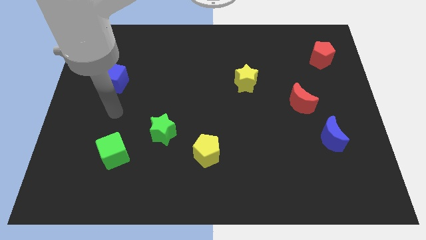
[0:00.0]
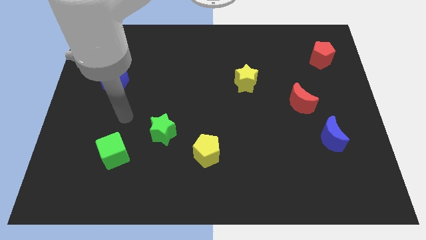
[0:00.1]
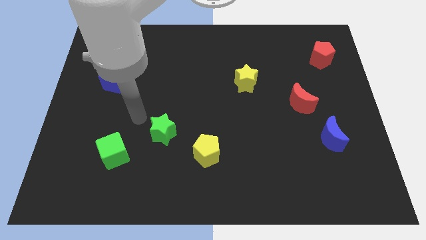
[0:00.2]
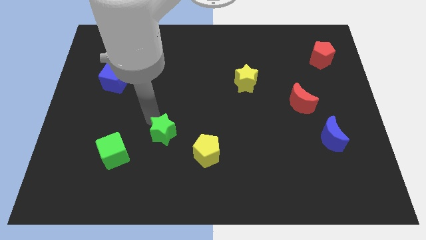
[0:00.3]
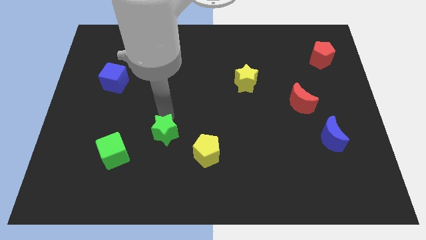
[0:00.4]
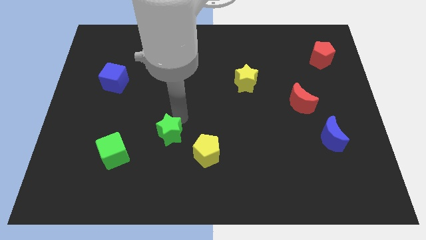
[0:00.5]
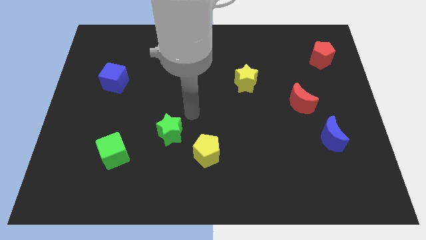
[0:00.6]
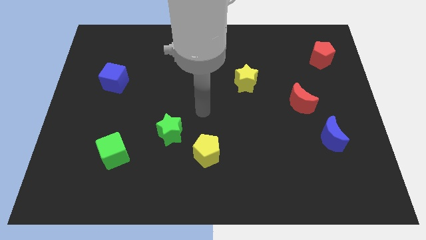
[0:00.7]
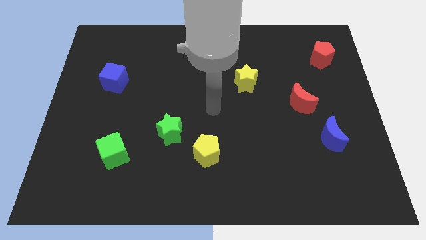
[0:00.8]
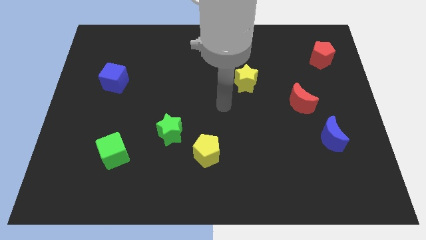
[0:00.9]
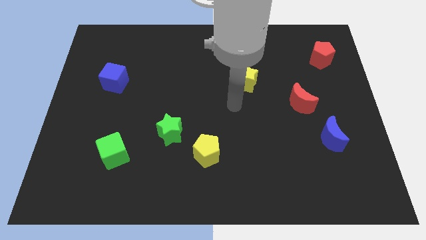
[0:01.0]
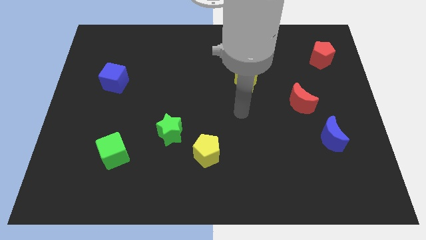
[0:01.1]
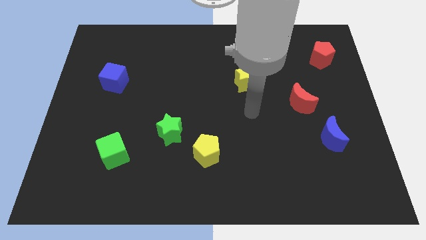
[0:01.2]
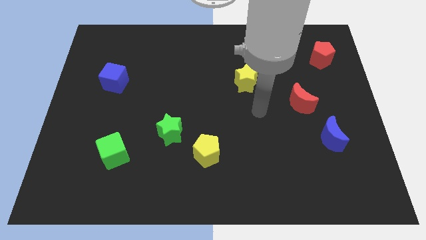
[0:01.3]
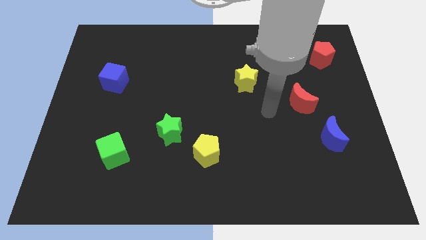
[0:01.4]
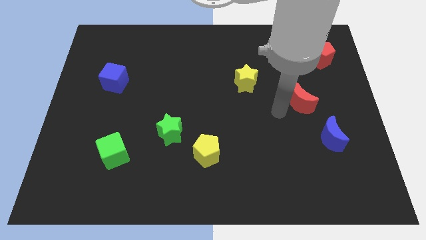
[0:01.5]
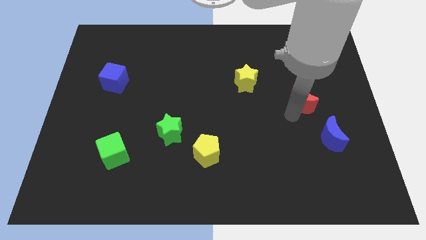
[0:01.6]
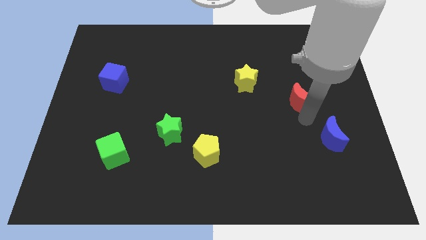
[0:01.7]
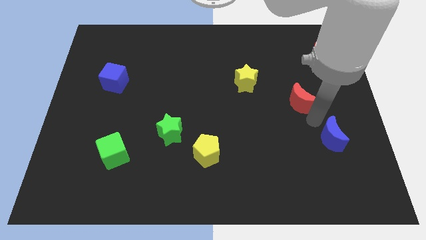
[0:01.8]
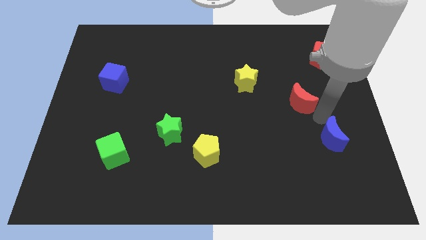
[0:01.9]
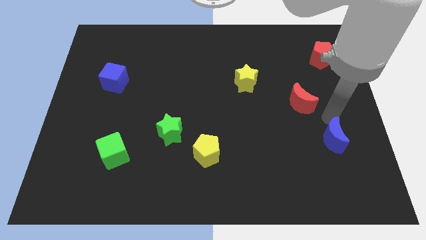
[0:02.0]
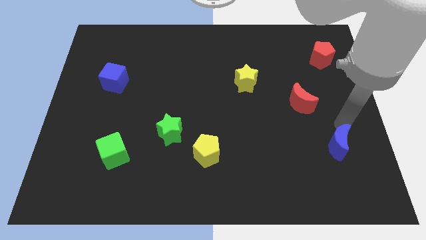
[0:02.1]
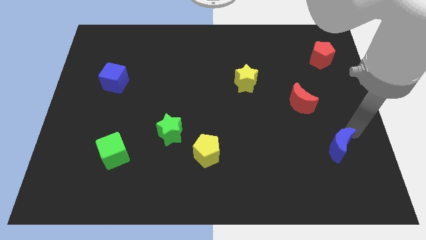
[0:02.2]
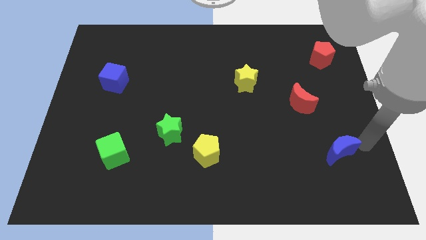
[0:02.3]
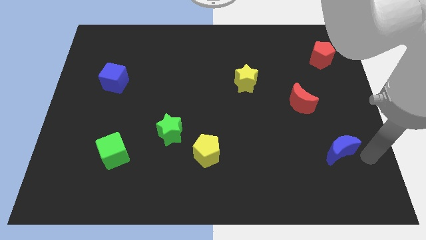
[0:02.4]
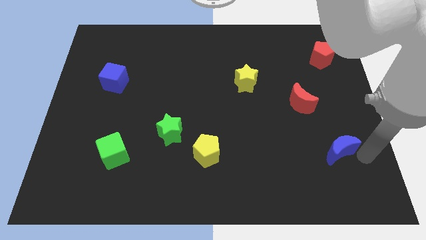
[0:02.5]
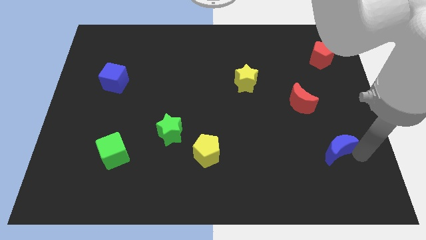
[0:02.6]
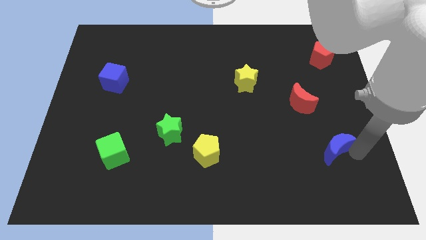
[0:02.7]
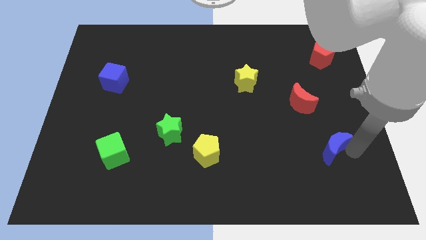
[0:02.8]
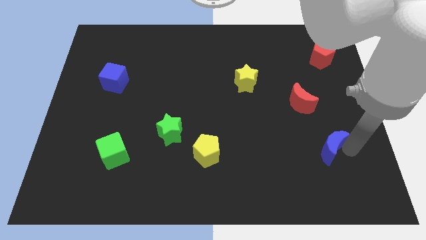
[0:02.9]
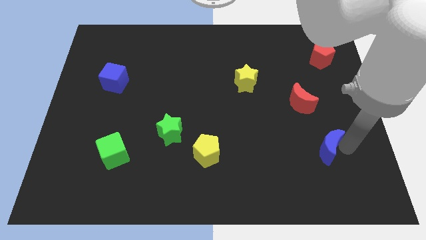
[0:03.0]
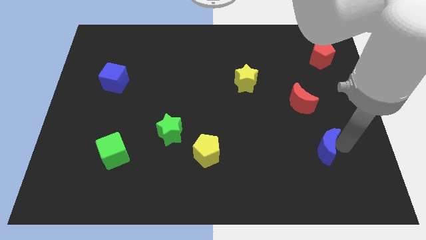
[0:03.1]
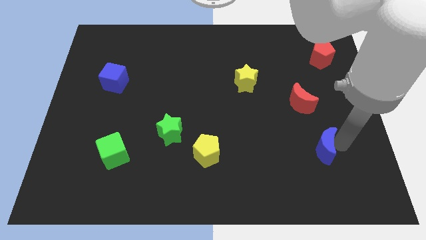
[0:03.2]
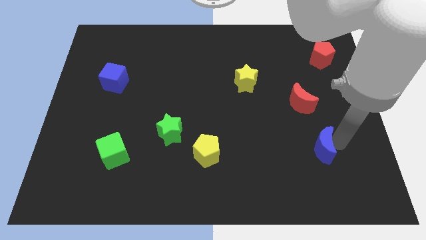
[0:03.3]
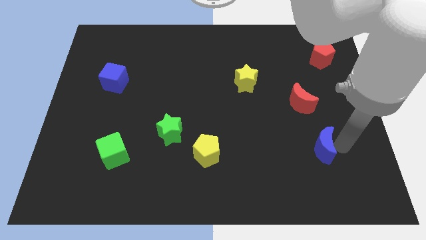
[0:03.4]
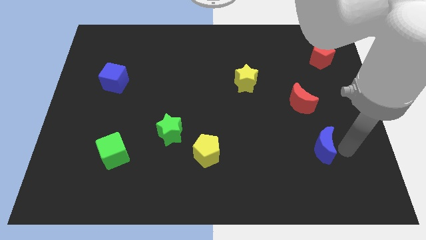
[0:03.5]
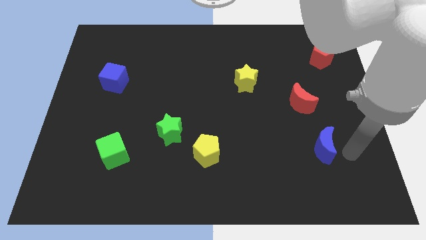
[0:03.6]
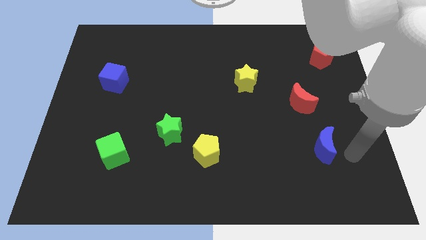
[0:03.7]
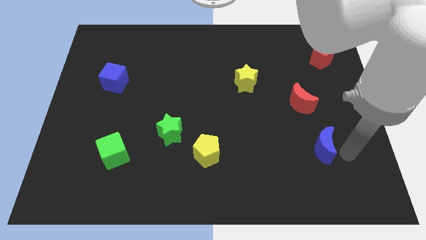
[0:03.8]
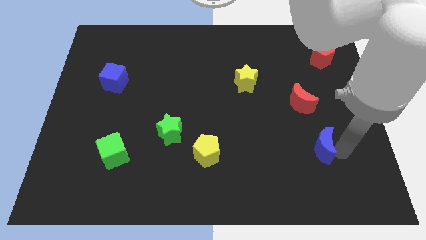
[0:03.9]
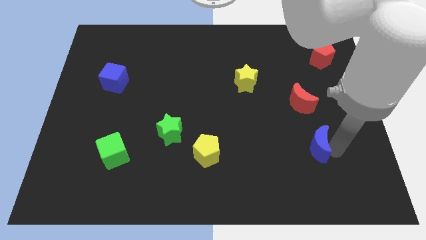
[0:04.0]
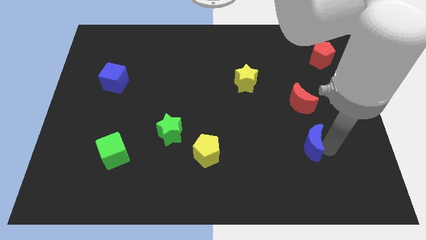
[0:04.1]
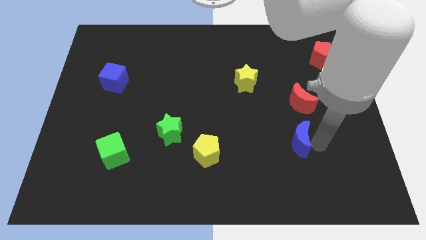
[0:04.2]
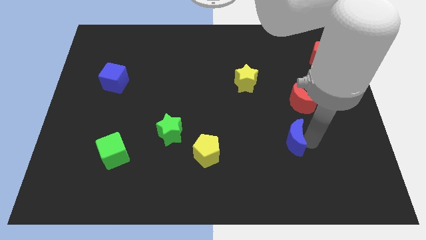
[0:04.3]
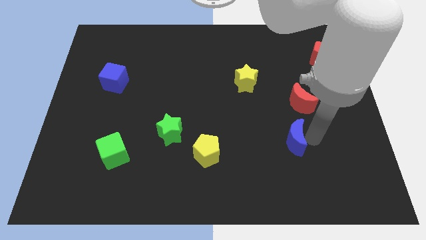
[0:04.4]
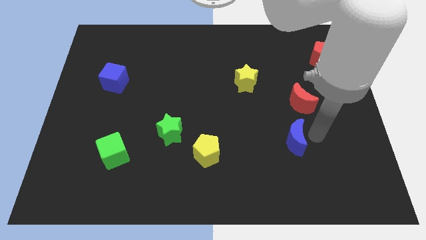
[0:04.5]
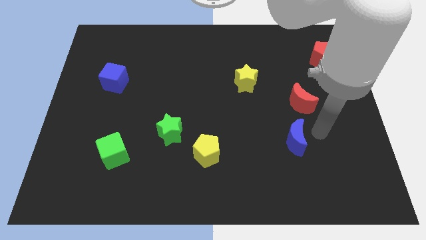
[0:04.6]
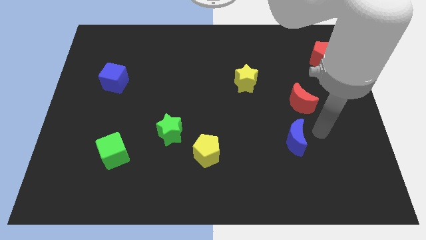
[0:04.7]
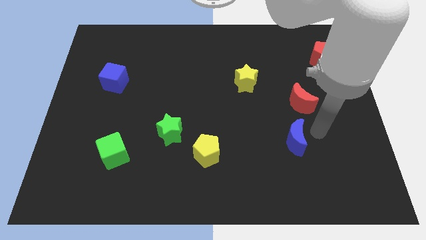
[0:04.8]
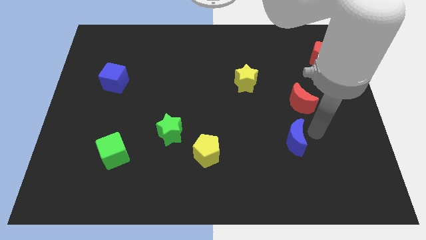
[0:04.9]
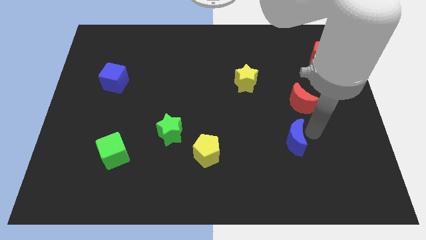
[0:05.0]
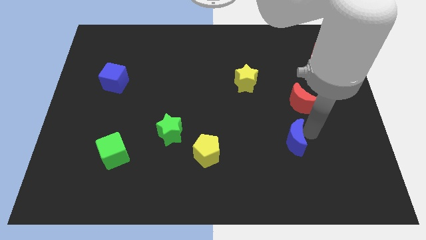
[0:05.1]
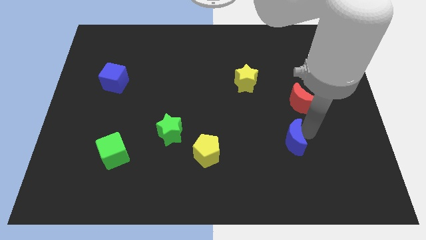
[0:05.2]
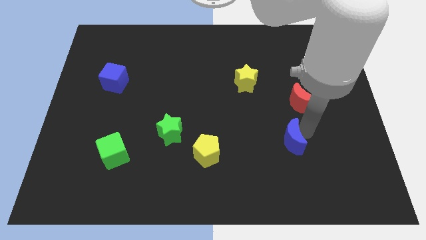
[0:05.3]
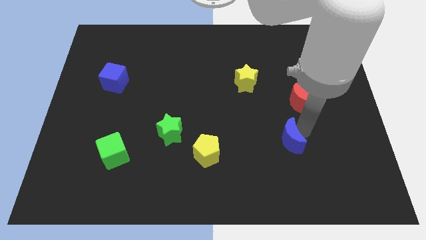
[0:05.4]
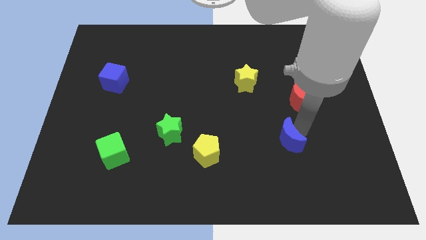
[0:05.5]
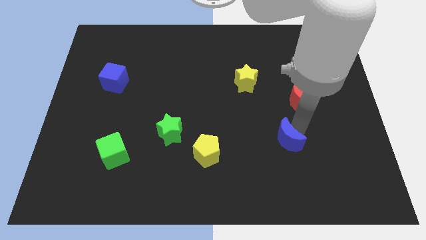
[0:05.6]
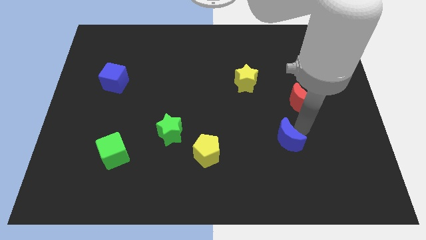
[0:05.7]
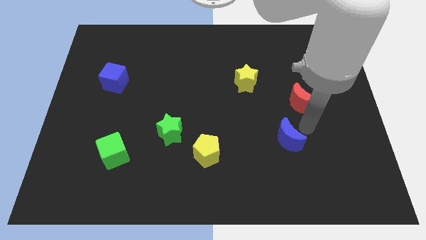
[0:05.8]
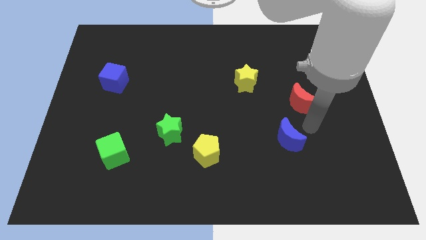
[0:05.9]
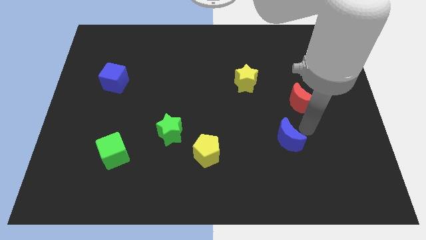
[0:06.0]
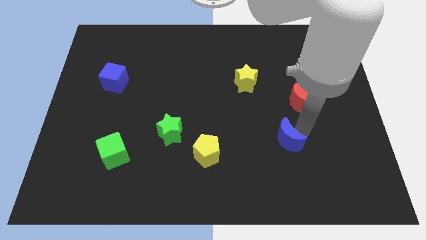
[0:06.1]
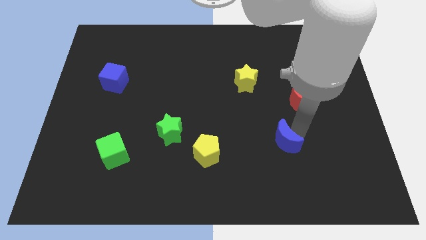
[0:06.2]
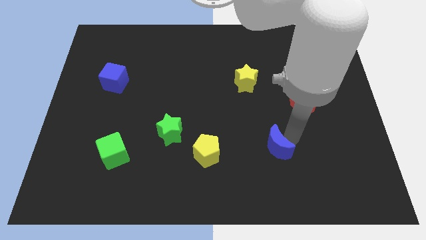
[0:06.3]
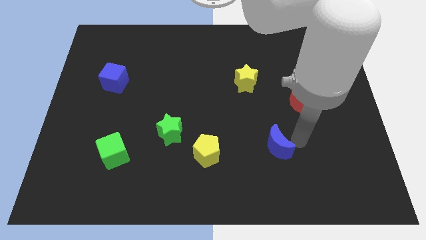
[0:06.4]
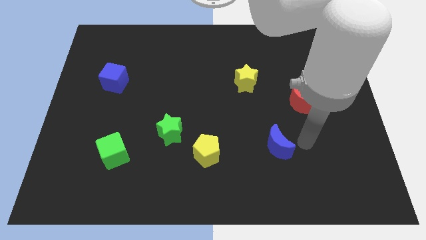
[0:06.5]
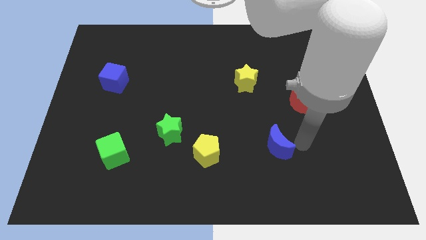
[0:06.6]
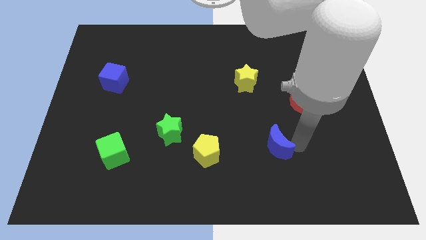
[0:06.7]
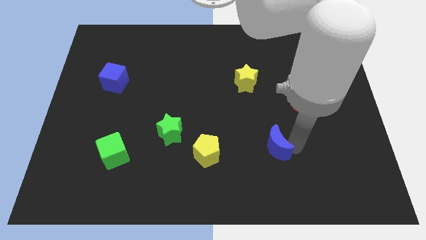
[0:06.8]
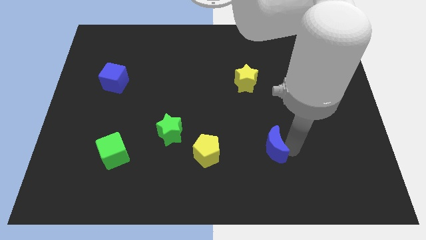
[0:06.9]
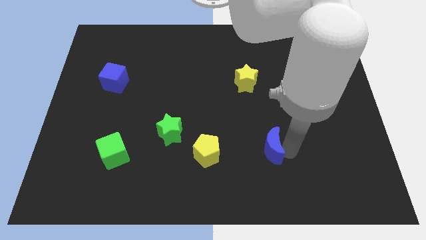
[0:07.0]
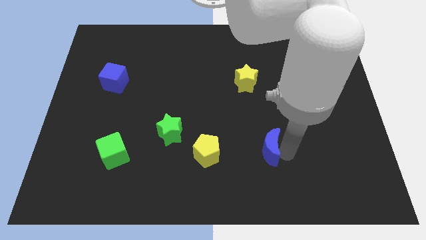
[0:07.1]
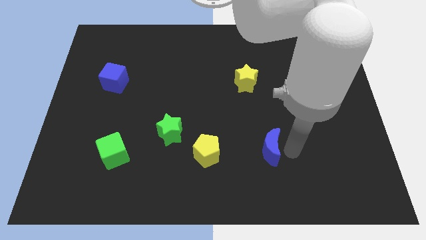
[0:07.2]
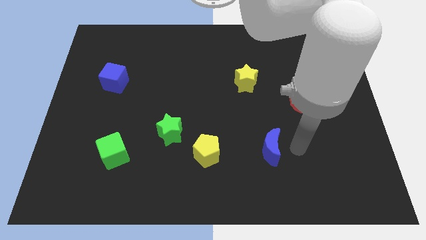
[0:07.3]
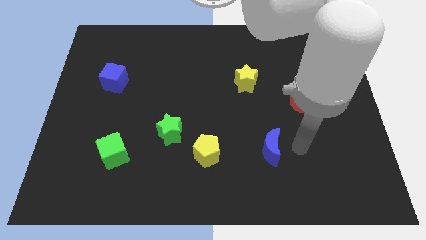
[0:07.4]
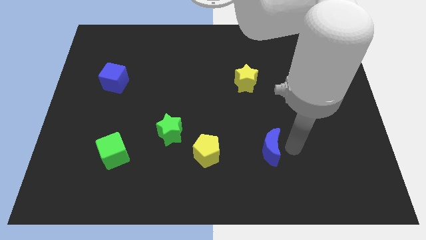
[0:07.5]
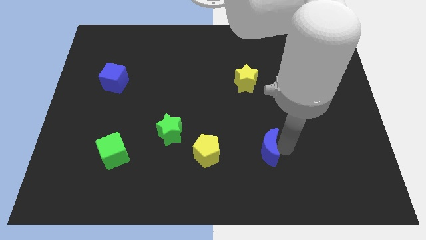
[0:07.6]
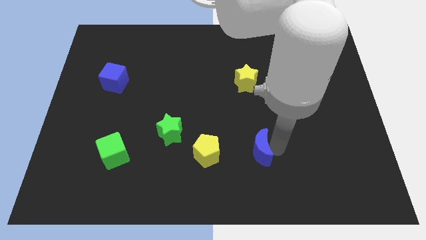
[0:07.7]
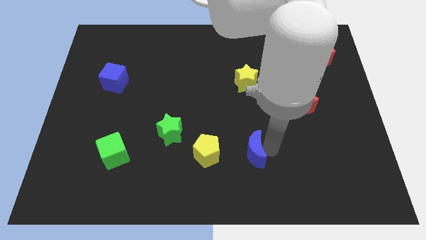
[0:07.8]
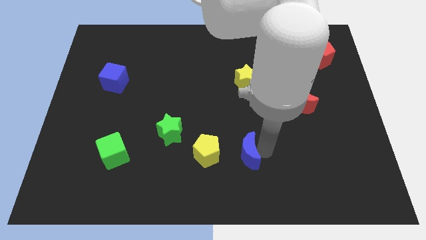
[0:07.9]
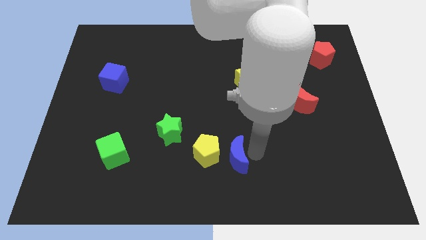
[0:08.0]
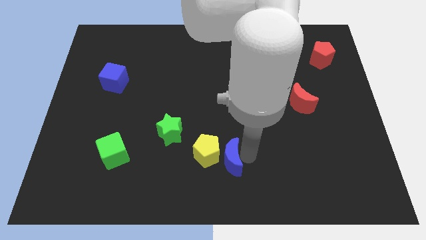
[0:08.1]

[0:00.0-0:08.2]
push the blue moon towards the yellow pentagon
